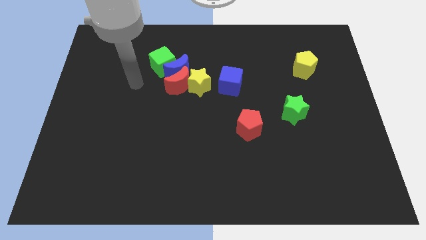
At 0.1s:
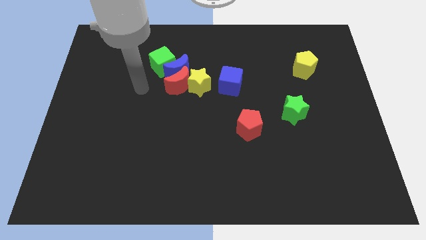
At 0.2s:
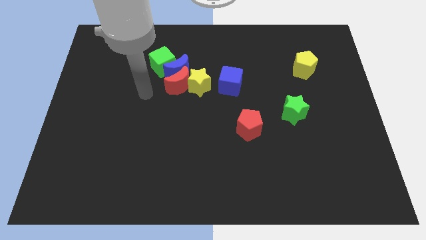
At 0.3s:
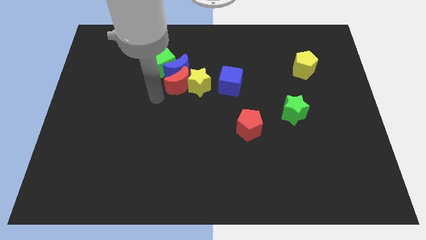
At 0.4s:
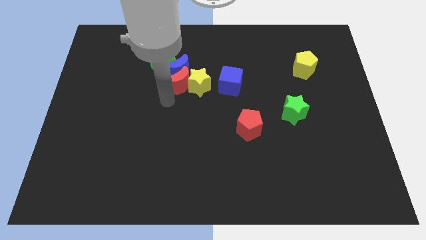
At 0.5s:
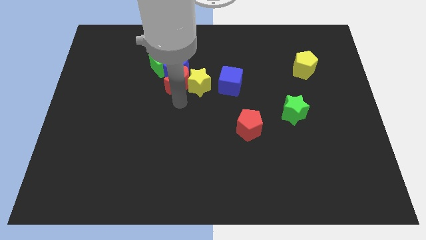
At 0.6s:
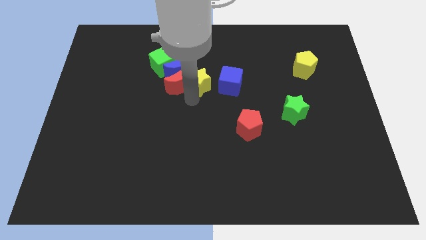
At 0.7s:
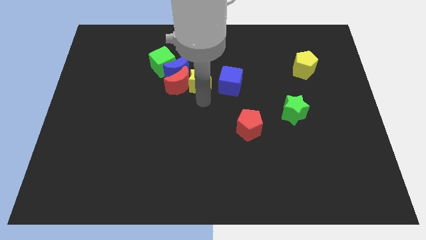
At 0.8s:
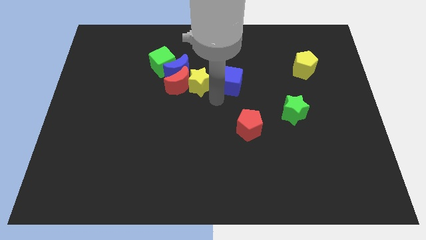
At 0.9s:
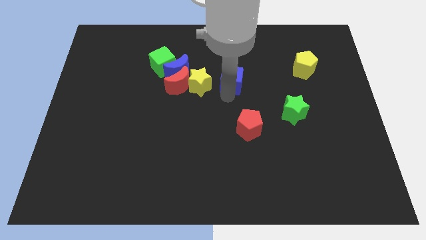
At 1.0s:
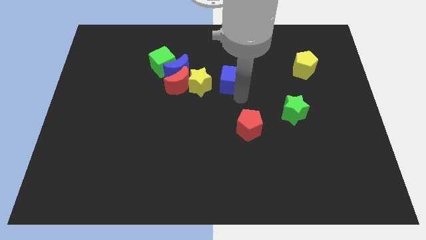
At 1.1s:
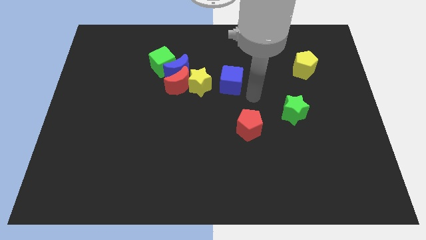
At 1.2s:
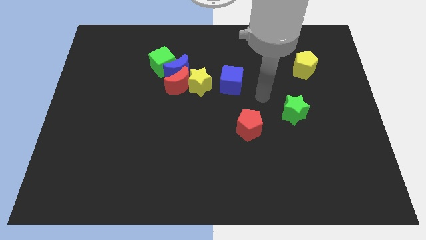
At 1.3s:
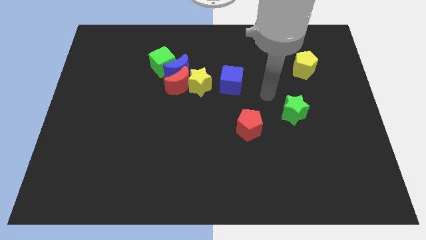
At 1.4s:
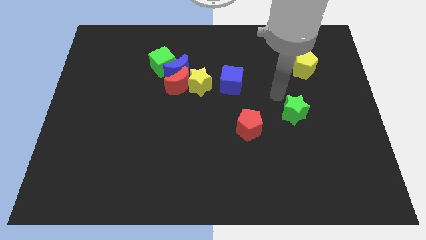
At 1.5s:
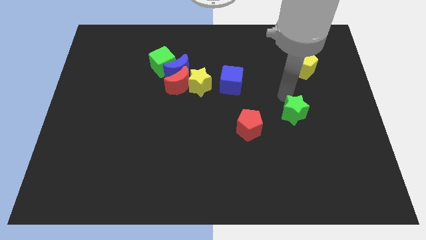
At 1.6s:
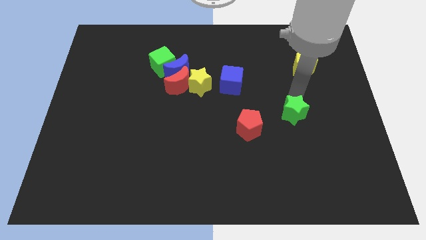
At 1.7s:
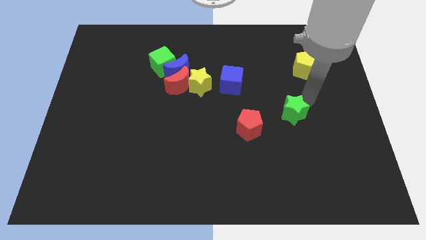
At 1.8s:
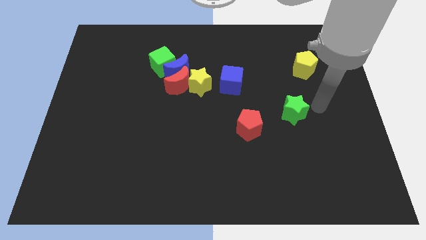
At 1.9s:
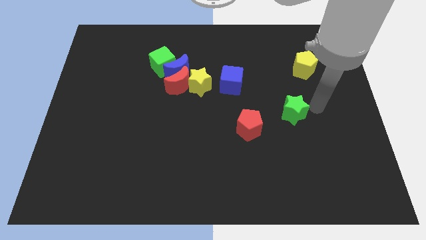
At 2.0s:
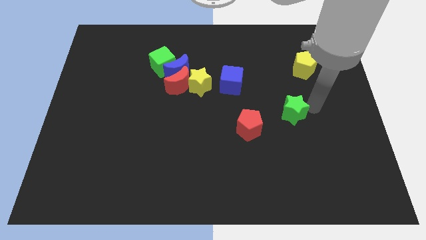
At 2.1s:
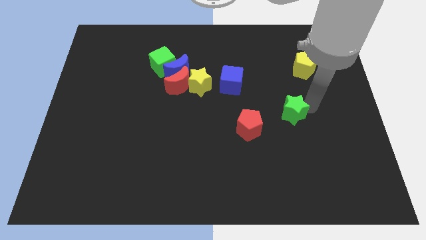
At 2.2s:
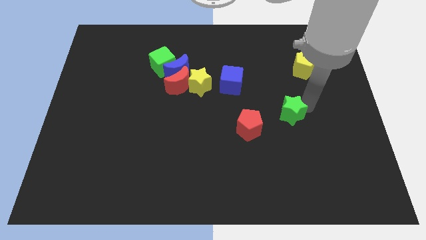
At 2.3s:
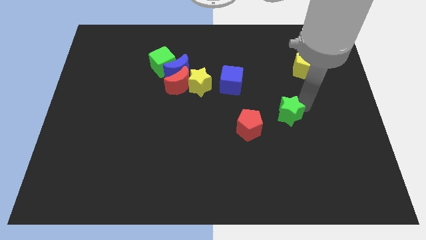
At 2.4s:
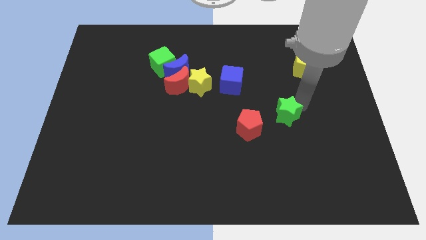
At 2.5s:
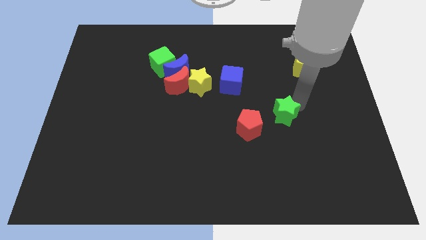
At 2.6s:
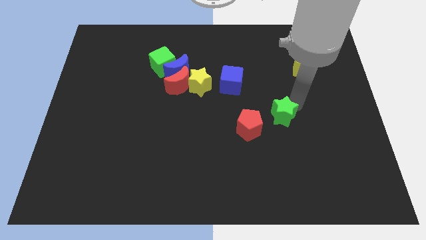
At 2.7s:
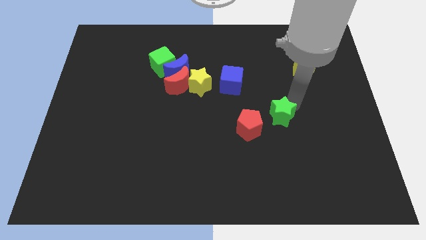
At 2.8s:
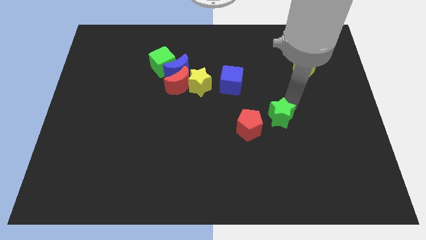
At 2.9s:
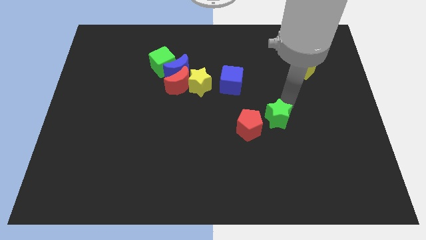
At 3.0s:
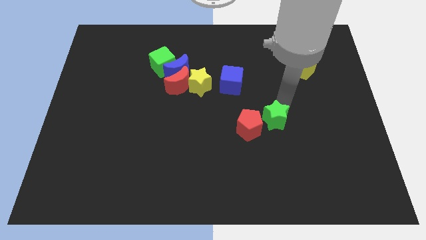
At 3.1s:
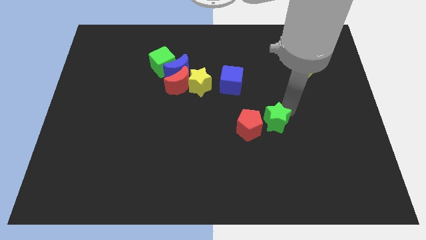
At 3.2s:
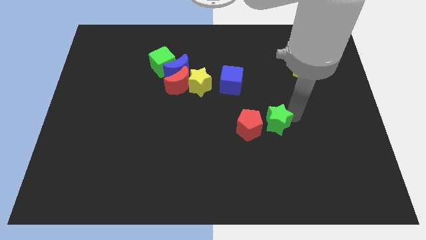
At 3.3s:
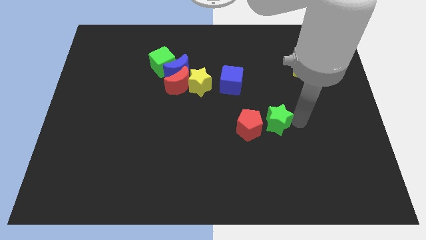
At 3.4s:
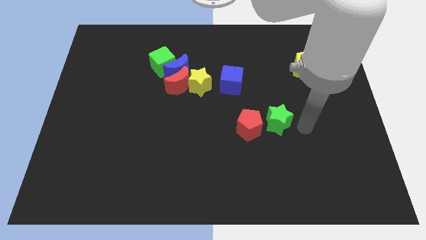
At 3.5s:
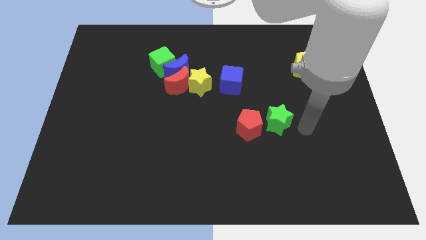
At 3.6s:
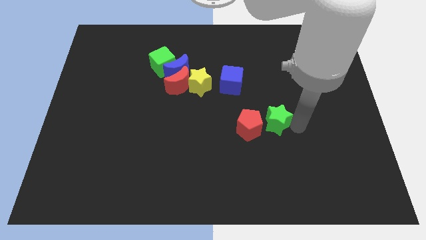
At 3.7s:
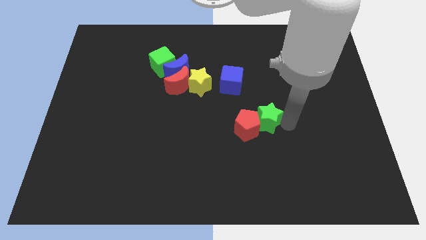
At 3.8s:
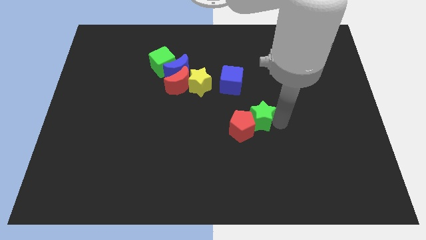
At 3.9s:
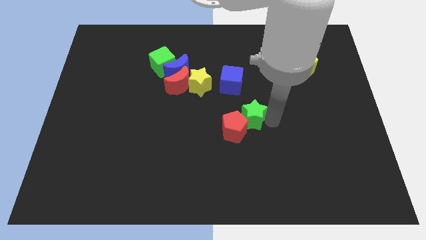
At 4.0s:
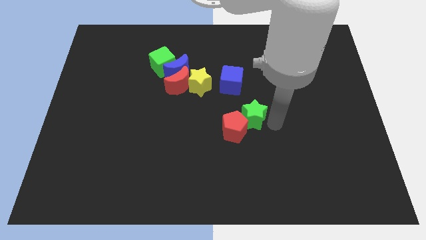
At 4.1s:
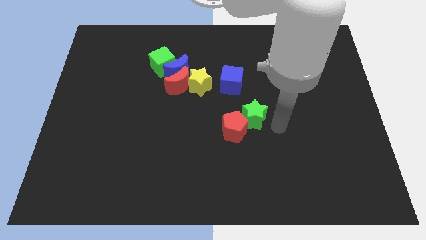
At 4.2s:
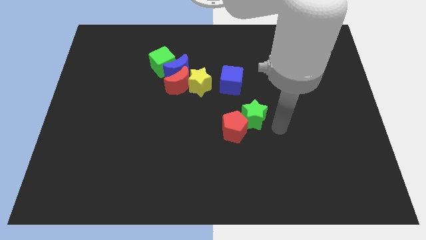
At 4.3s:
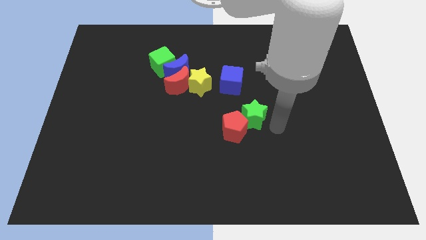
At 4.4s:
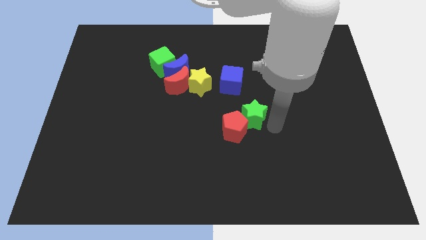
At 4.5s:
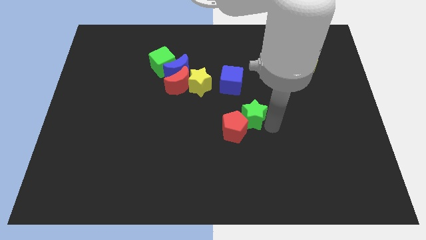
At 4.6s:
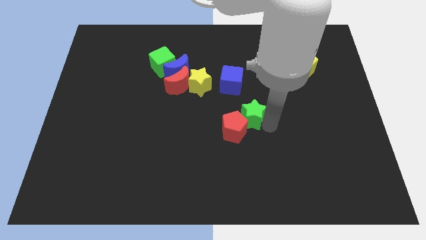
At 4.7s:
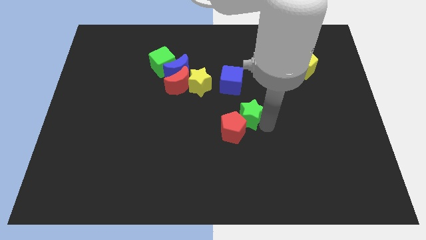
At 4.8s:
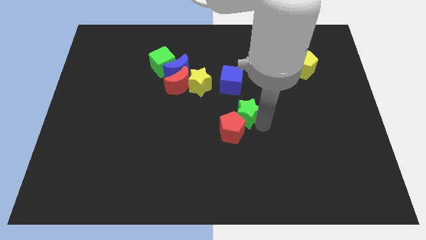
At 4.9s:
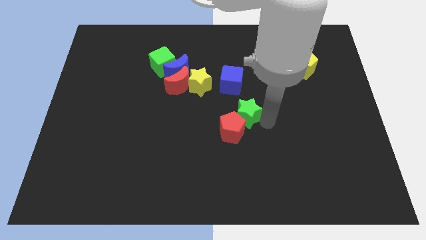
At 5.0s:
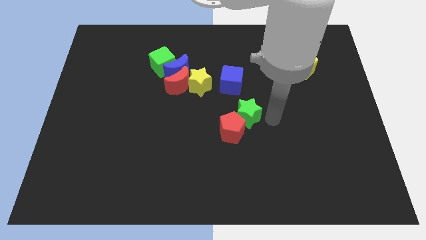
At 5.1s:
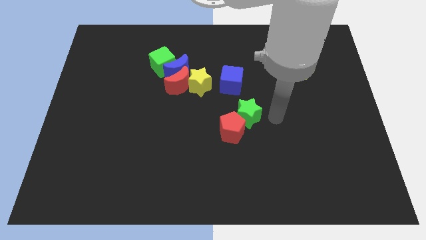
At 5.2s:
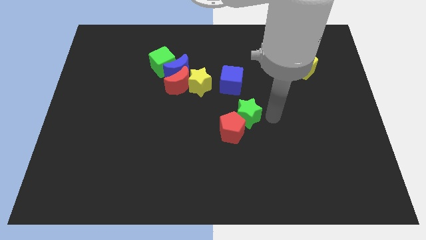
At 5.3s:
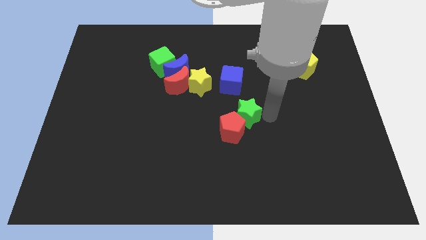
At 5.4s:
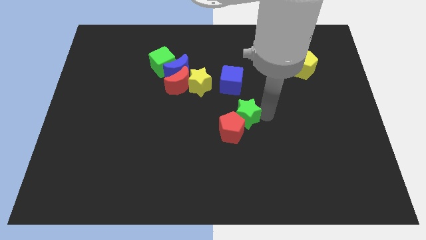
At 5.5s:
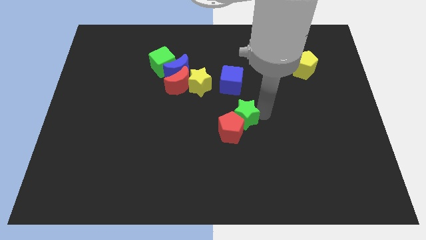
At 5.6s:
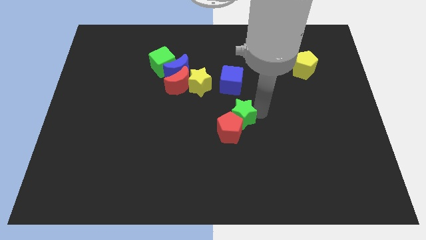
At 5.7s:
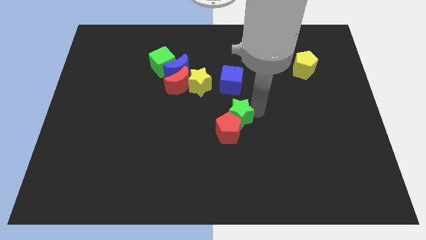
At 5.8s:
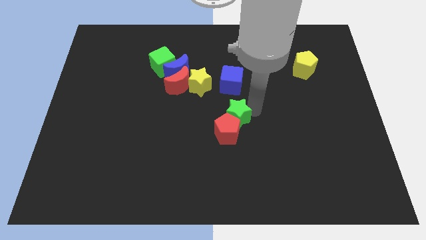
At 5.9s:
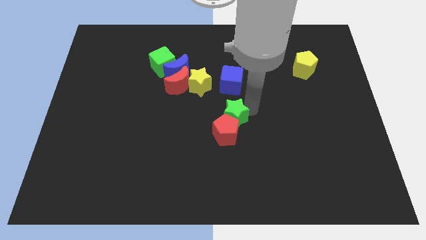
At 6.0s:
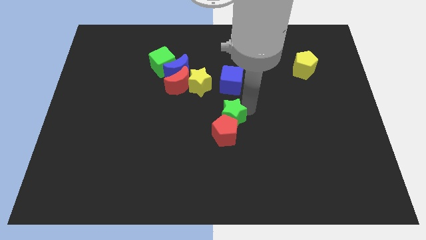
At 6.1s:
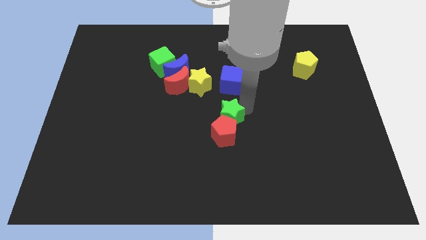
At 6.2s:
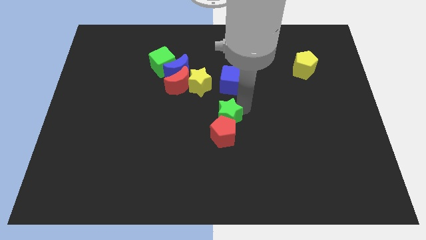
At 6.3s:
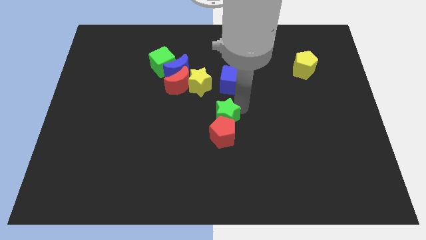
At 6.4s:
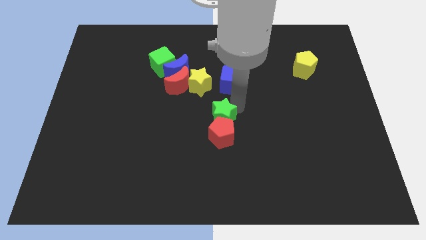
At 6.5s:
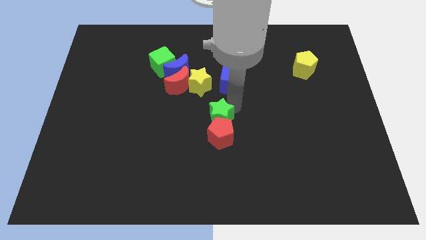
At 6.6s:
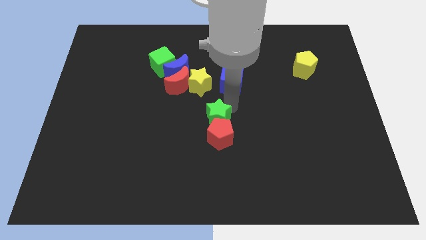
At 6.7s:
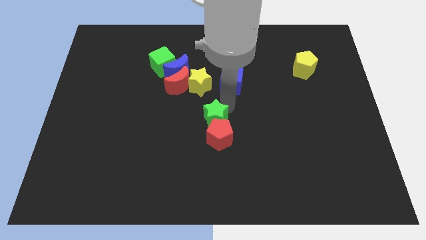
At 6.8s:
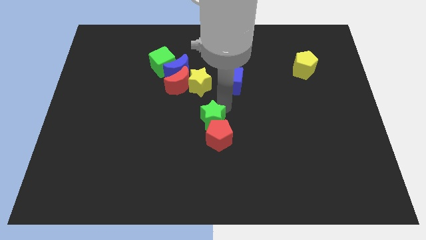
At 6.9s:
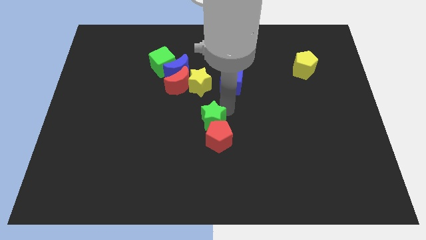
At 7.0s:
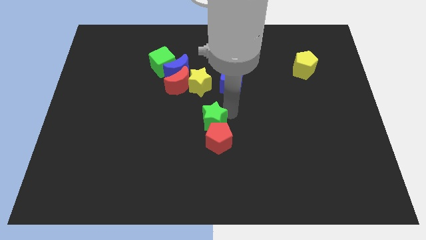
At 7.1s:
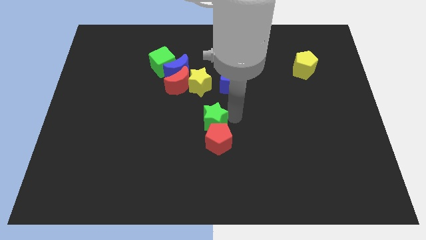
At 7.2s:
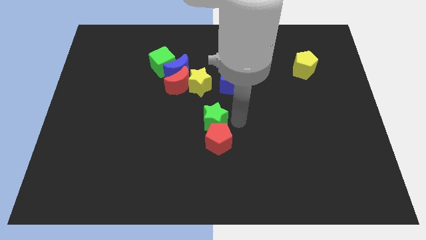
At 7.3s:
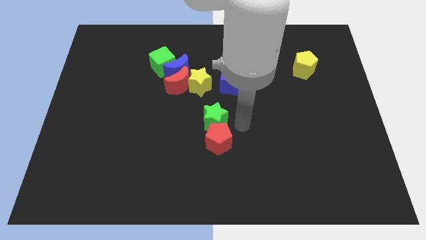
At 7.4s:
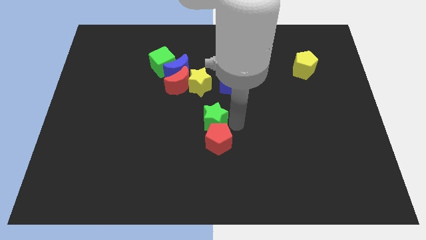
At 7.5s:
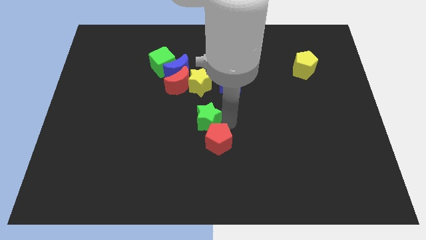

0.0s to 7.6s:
push the green star to the left
